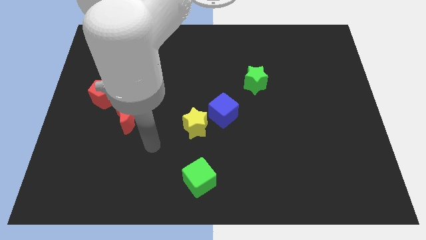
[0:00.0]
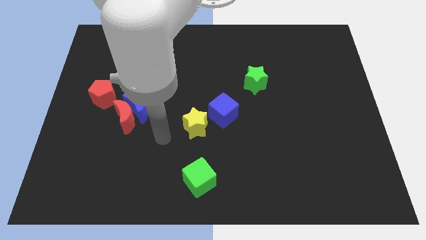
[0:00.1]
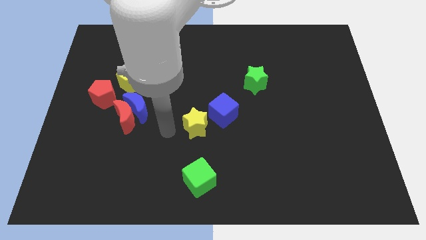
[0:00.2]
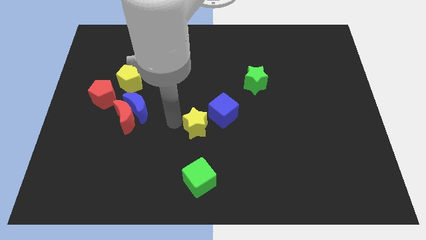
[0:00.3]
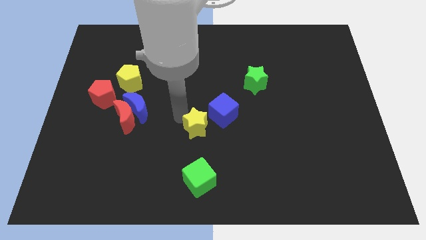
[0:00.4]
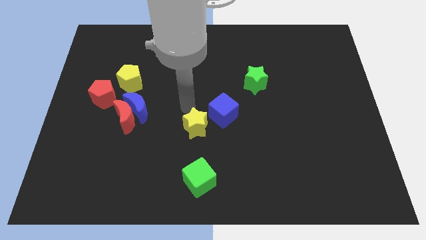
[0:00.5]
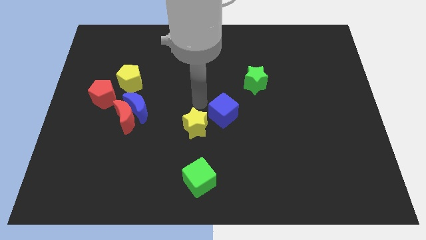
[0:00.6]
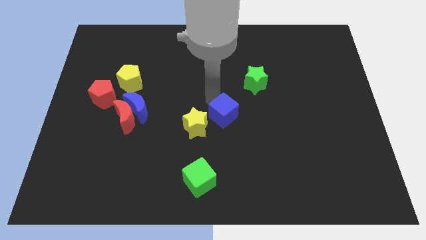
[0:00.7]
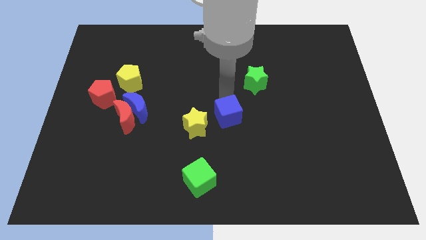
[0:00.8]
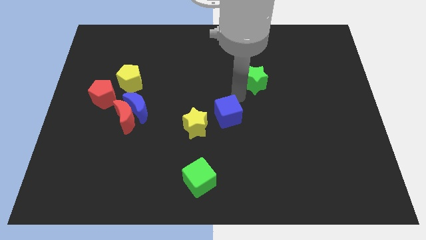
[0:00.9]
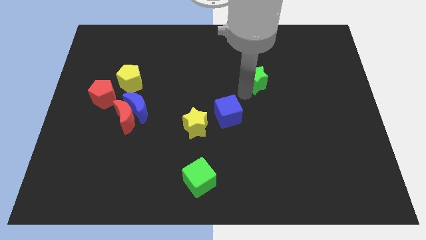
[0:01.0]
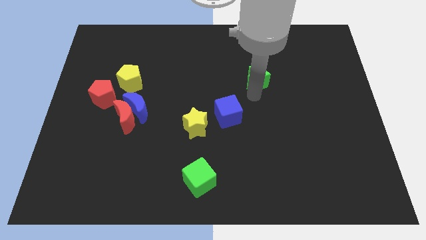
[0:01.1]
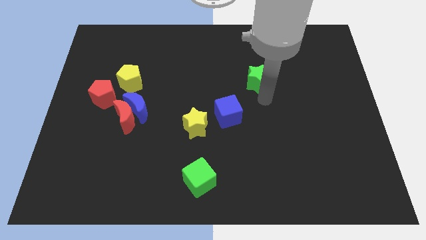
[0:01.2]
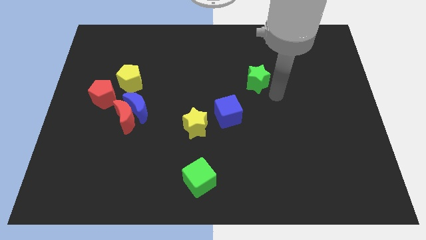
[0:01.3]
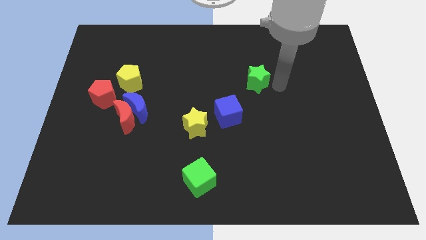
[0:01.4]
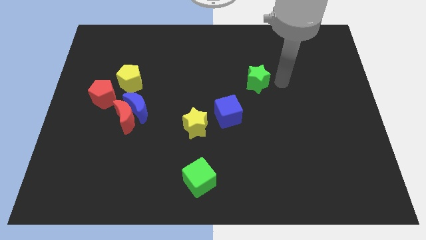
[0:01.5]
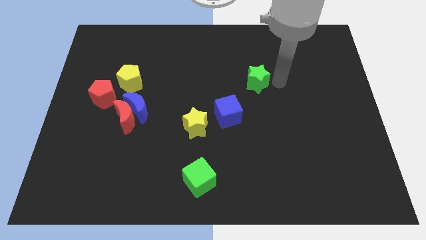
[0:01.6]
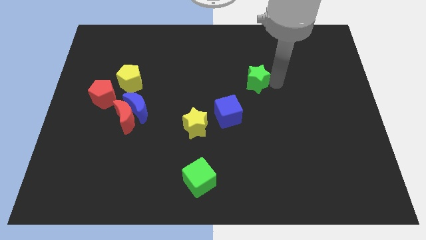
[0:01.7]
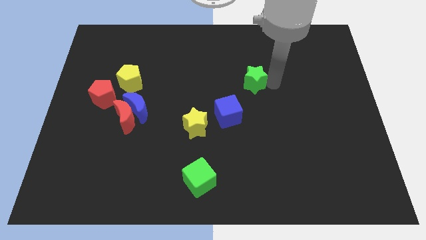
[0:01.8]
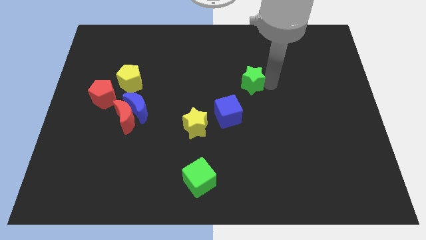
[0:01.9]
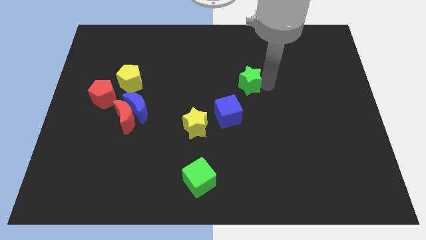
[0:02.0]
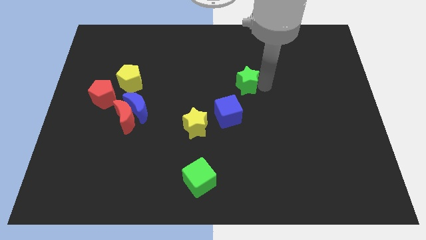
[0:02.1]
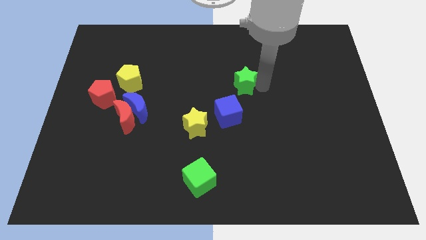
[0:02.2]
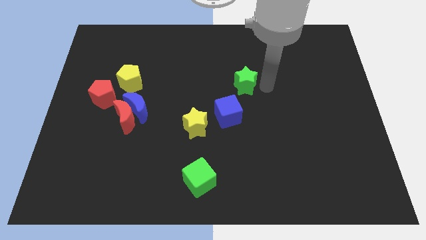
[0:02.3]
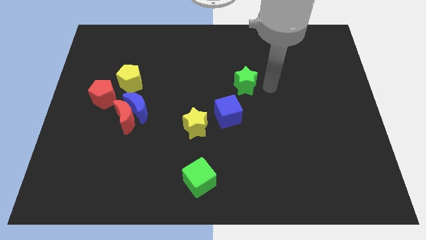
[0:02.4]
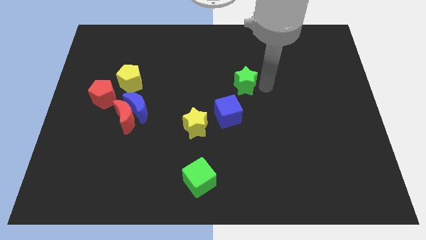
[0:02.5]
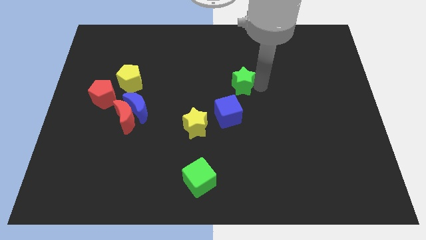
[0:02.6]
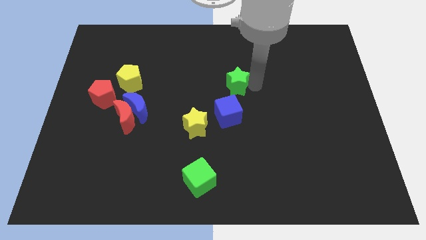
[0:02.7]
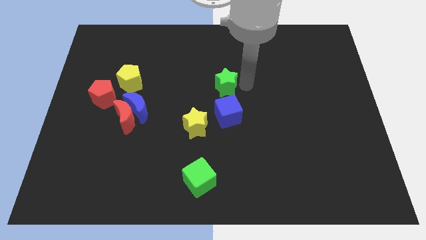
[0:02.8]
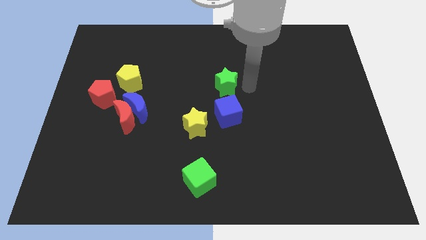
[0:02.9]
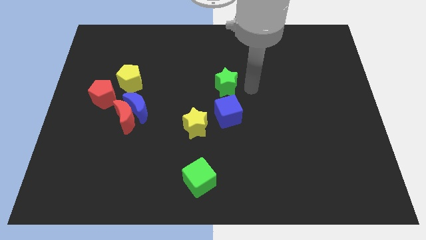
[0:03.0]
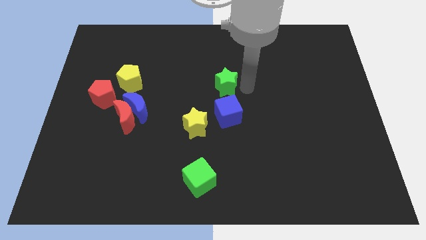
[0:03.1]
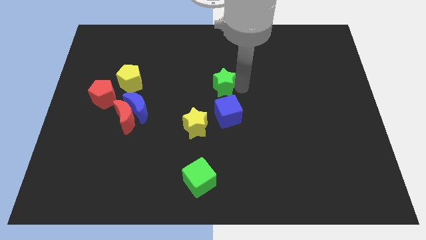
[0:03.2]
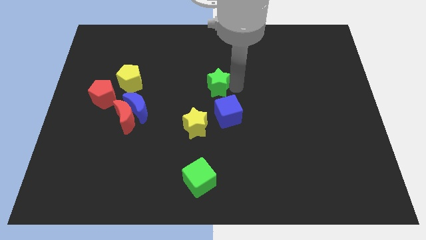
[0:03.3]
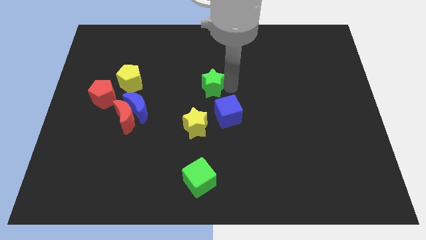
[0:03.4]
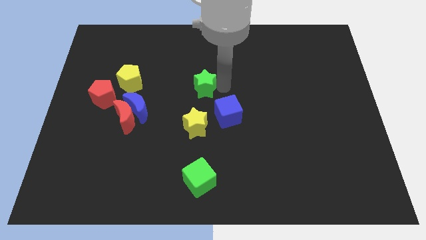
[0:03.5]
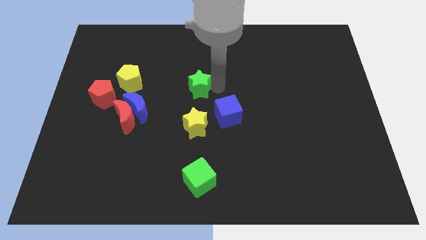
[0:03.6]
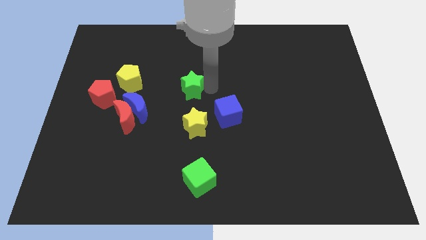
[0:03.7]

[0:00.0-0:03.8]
move the green star to the right of the yellow pentagon

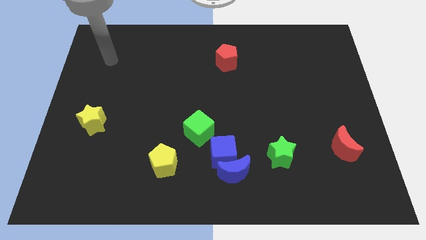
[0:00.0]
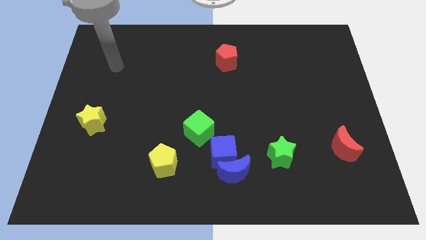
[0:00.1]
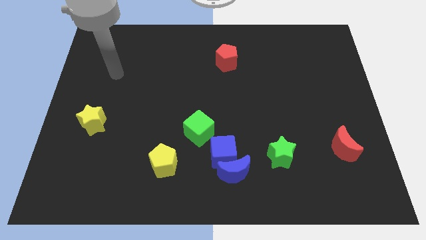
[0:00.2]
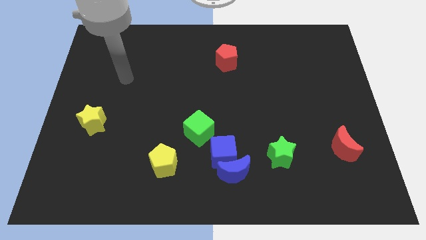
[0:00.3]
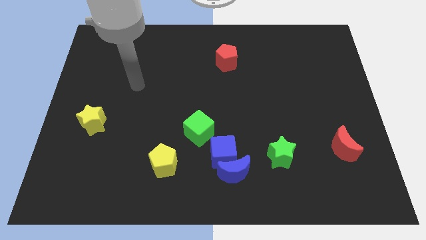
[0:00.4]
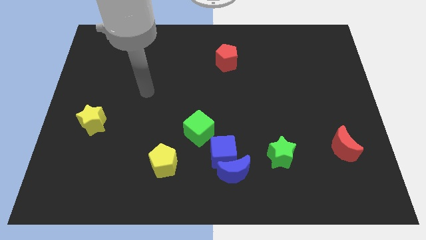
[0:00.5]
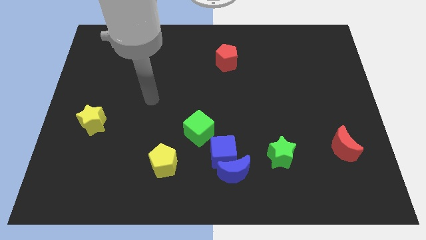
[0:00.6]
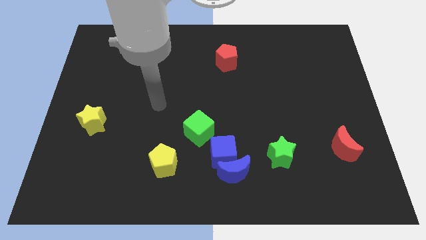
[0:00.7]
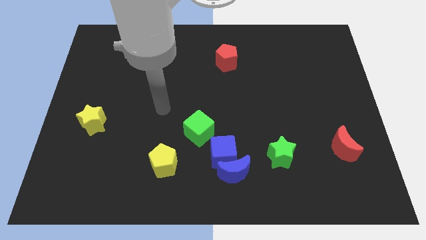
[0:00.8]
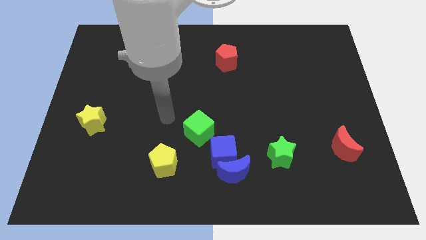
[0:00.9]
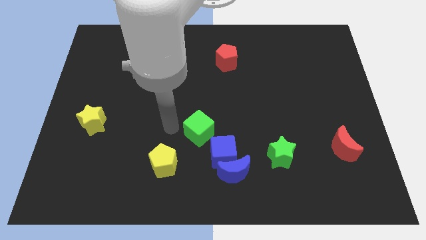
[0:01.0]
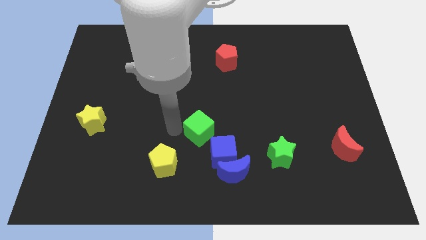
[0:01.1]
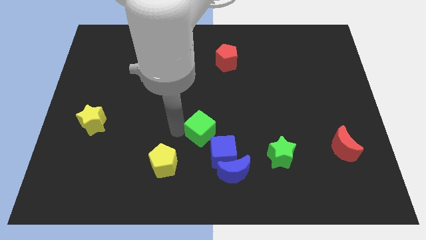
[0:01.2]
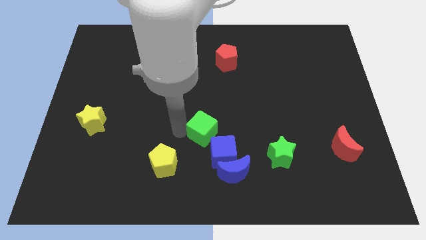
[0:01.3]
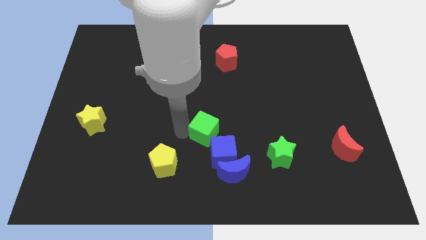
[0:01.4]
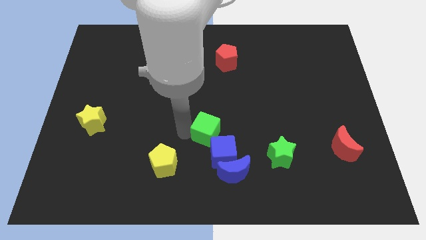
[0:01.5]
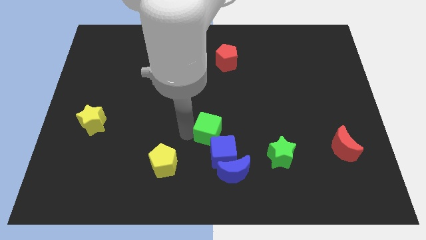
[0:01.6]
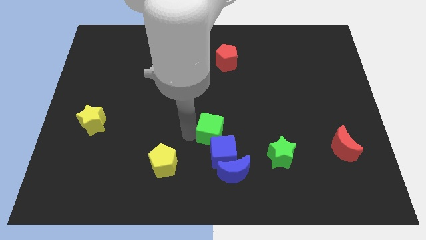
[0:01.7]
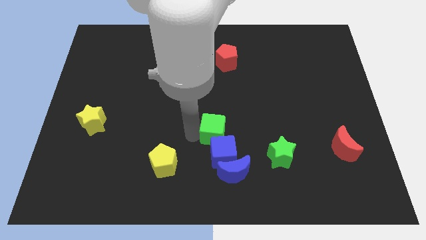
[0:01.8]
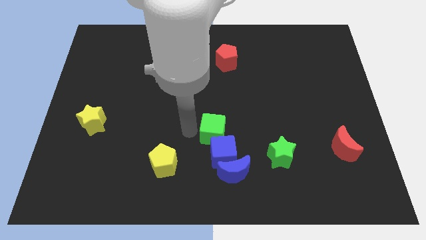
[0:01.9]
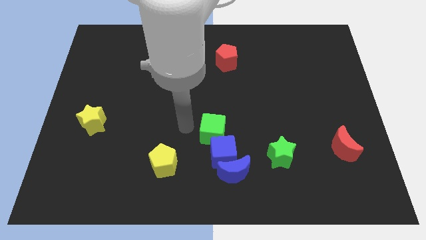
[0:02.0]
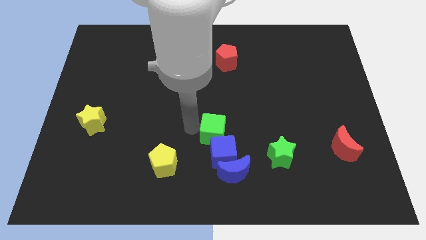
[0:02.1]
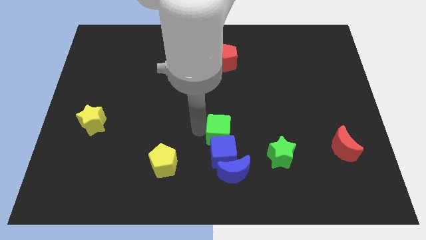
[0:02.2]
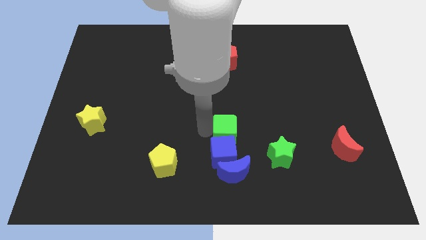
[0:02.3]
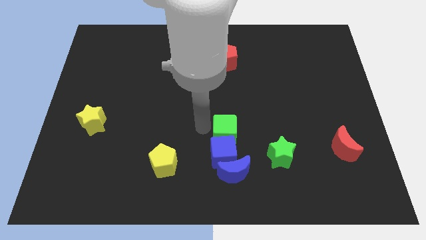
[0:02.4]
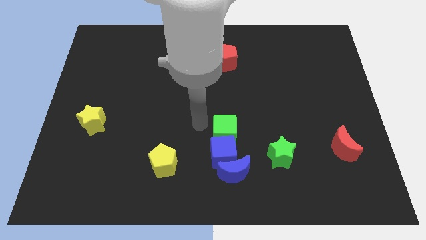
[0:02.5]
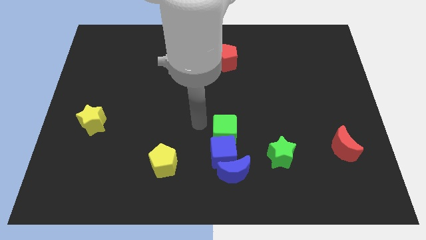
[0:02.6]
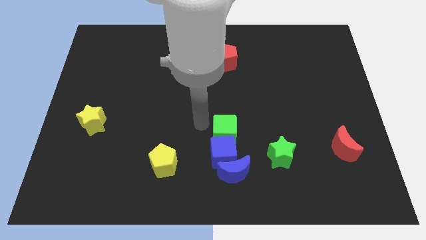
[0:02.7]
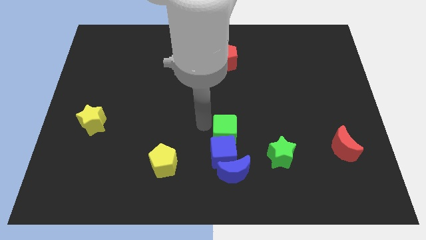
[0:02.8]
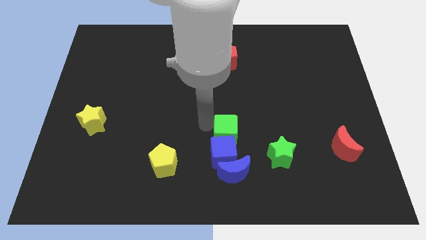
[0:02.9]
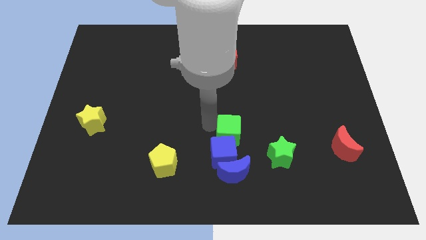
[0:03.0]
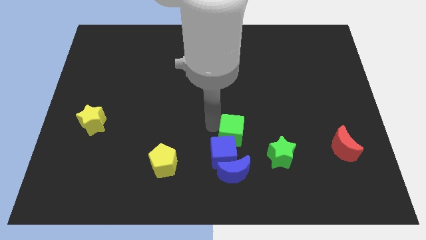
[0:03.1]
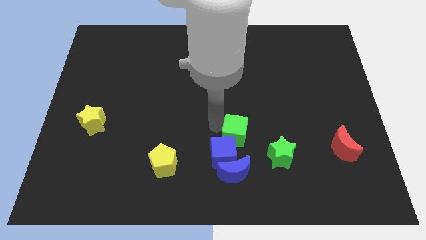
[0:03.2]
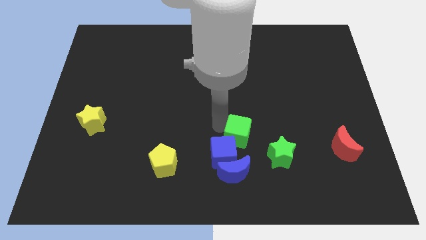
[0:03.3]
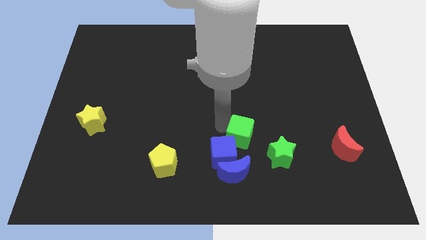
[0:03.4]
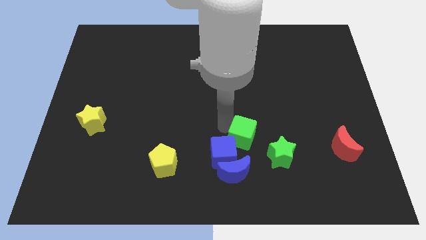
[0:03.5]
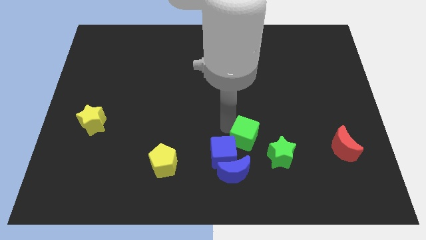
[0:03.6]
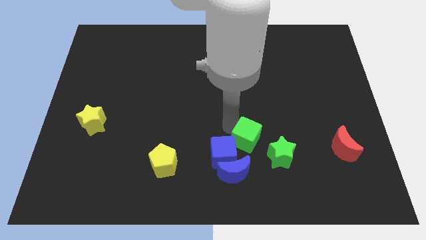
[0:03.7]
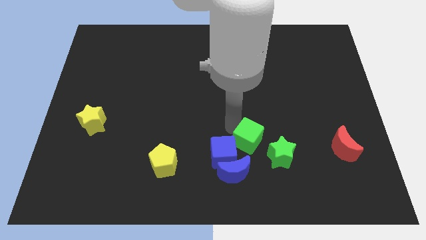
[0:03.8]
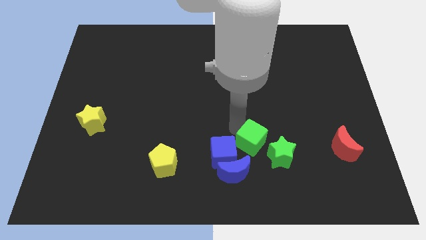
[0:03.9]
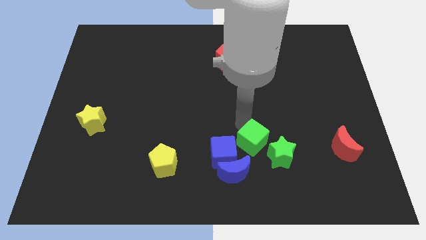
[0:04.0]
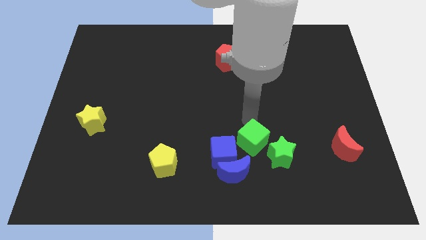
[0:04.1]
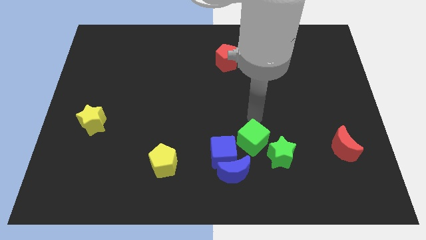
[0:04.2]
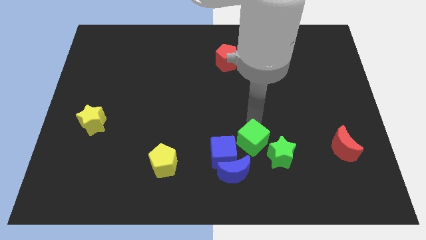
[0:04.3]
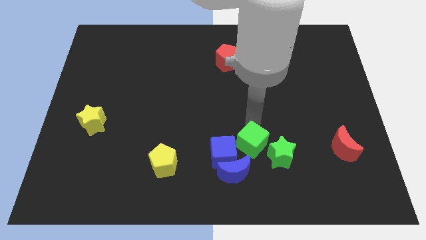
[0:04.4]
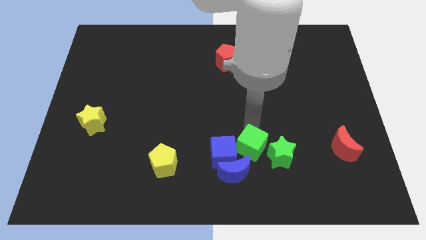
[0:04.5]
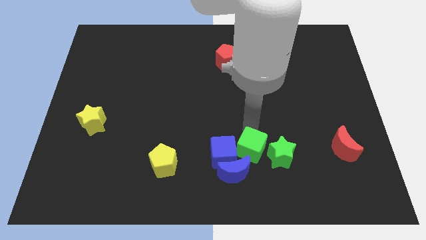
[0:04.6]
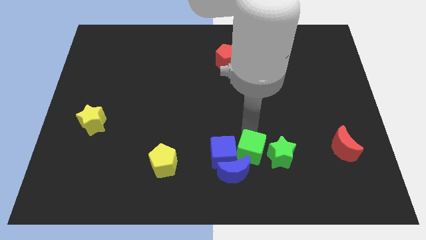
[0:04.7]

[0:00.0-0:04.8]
push the green cube to the bottom right of the blue cube
